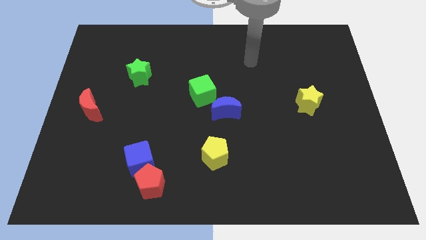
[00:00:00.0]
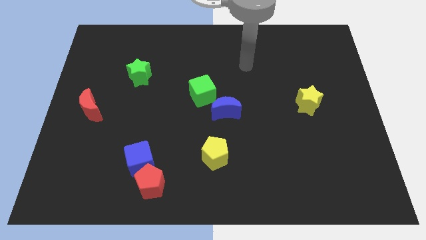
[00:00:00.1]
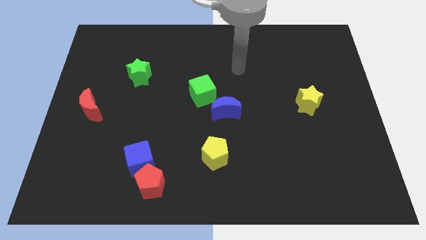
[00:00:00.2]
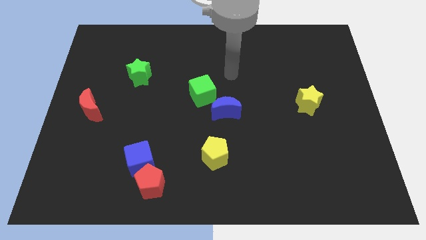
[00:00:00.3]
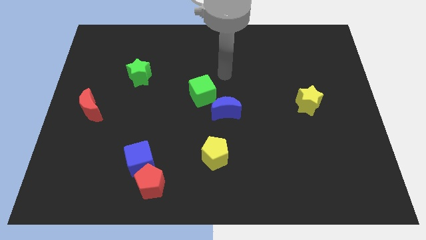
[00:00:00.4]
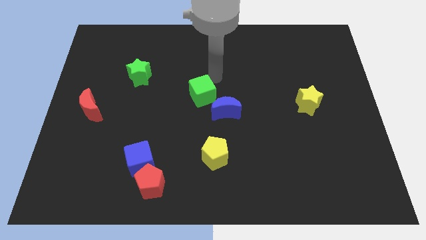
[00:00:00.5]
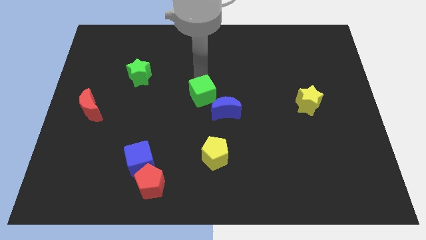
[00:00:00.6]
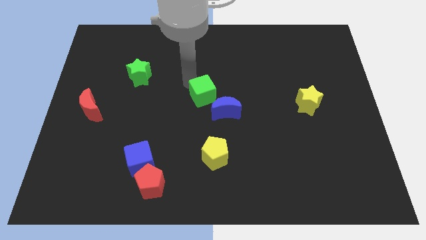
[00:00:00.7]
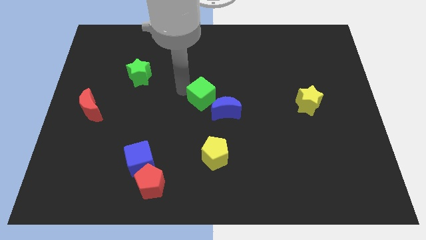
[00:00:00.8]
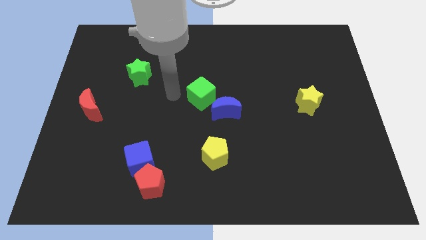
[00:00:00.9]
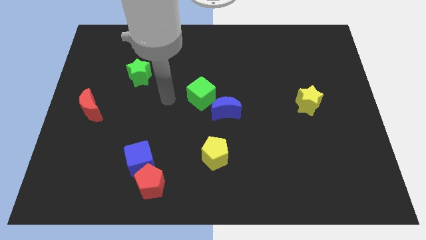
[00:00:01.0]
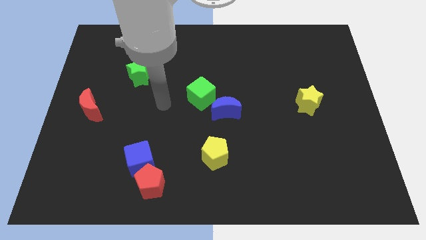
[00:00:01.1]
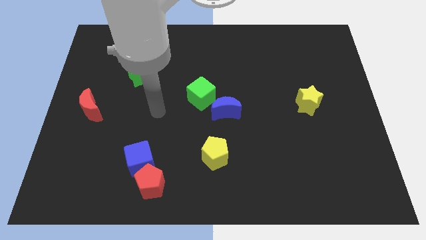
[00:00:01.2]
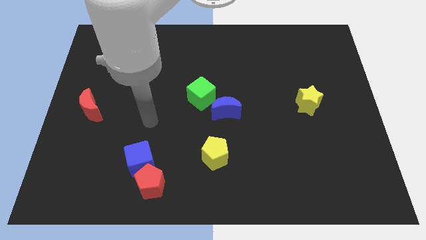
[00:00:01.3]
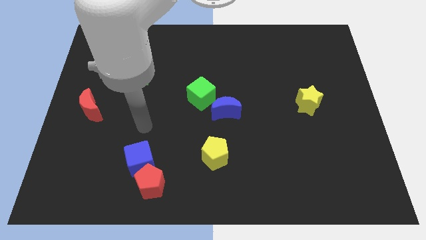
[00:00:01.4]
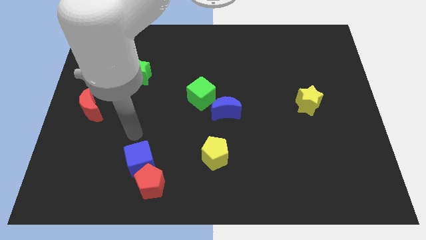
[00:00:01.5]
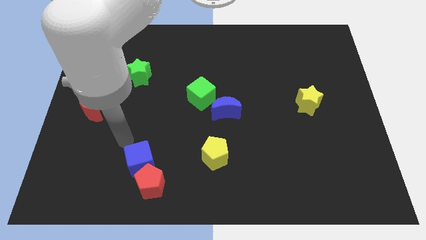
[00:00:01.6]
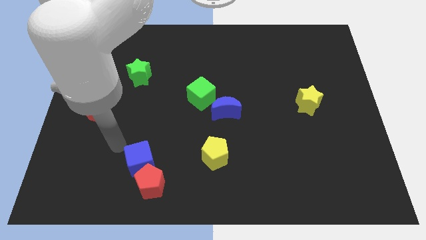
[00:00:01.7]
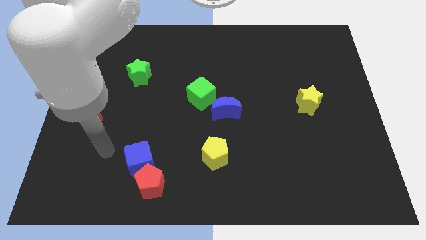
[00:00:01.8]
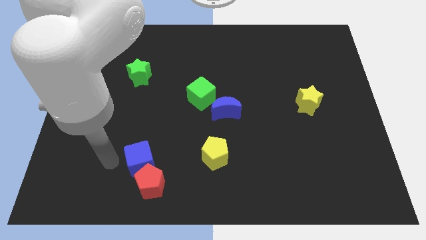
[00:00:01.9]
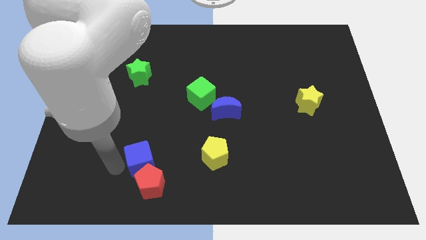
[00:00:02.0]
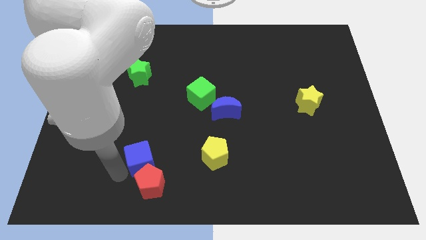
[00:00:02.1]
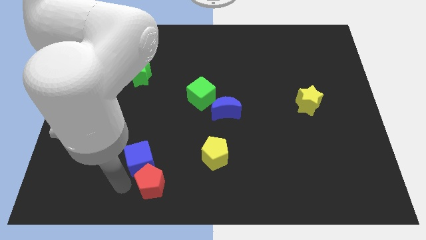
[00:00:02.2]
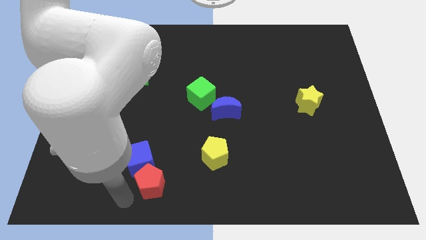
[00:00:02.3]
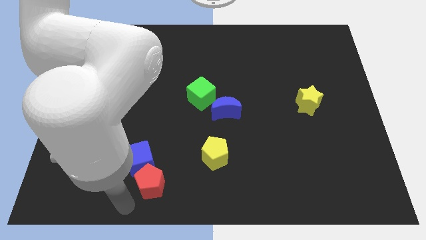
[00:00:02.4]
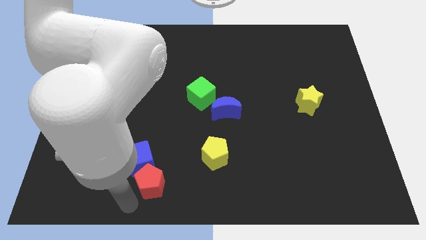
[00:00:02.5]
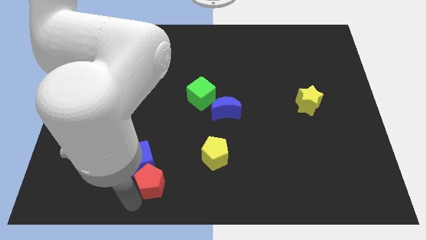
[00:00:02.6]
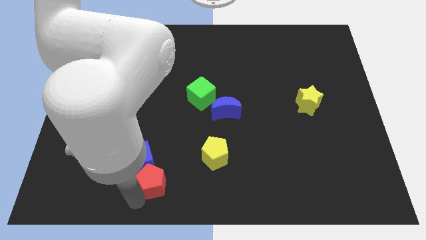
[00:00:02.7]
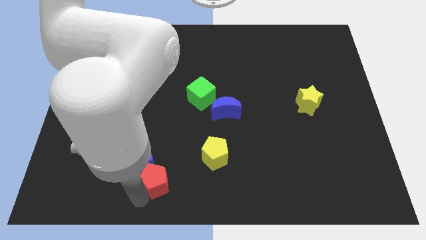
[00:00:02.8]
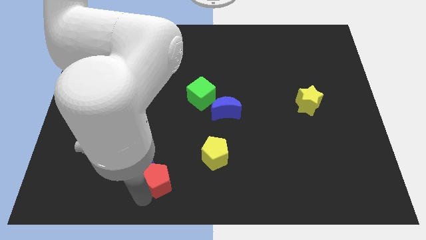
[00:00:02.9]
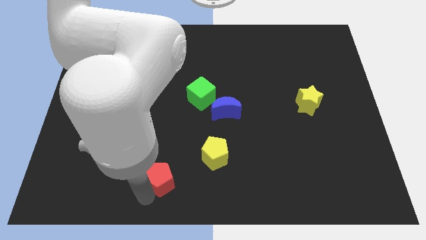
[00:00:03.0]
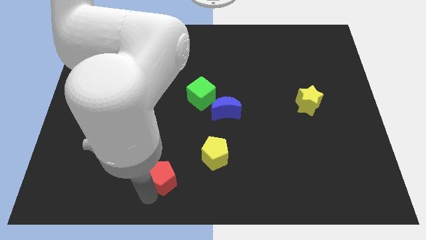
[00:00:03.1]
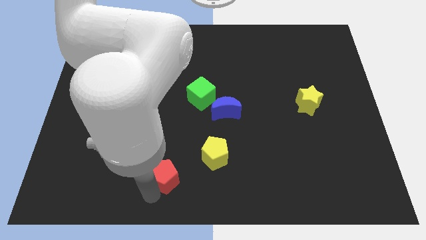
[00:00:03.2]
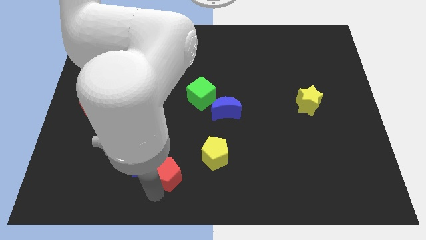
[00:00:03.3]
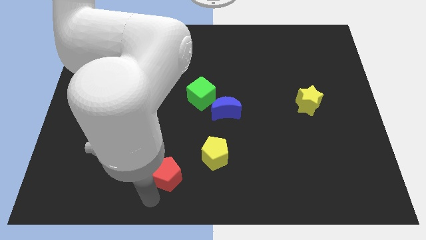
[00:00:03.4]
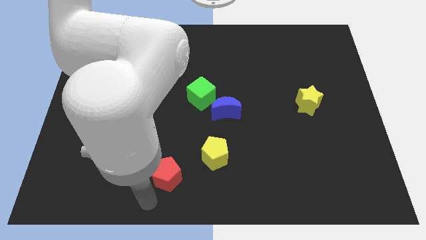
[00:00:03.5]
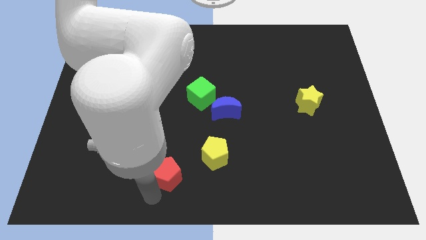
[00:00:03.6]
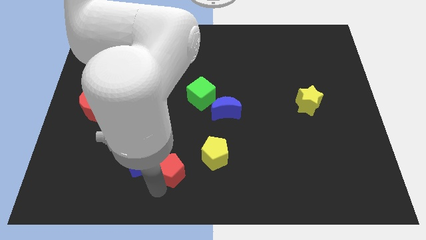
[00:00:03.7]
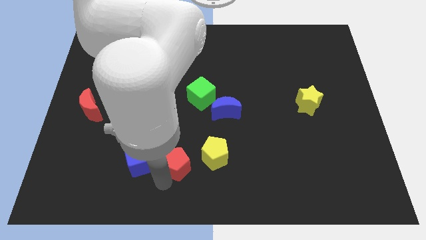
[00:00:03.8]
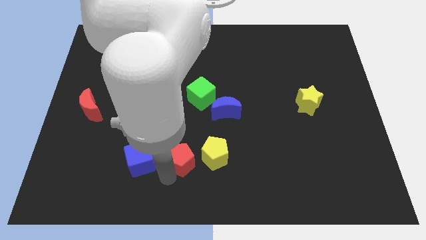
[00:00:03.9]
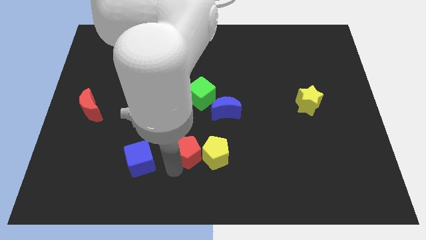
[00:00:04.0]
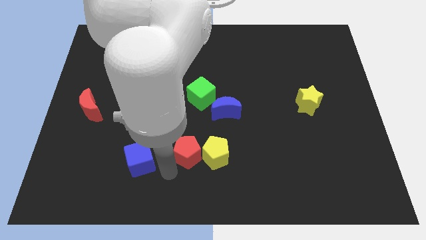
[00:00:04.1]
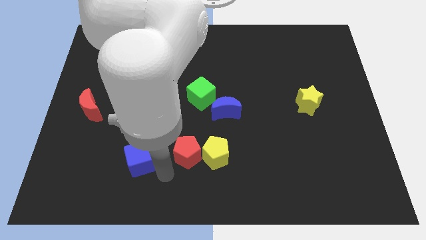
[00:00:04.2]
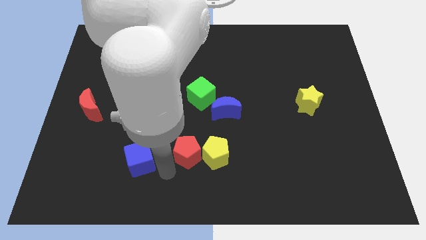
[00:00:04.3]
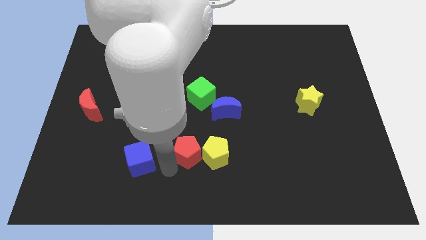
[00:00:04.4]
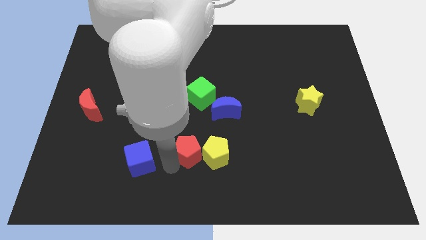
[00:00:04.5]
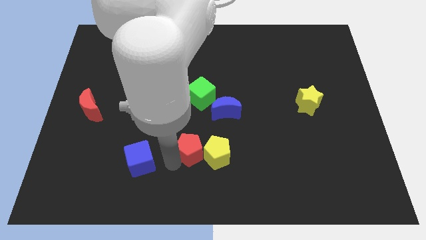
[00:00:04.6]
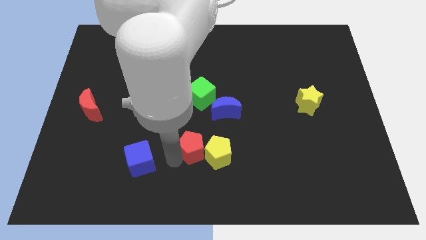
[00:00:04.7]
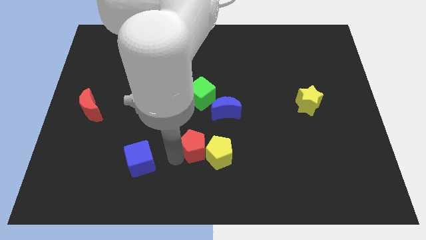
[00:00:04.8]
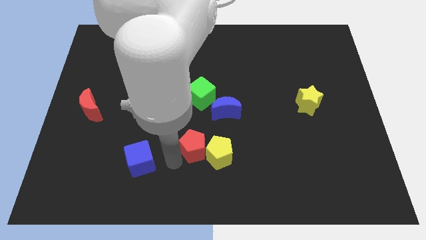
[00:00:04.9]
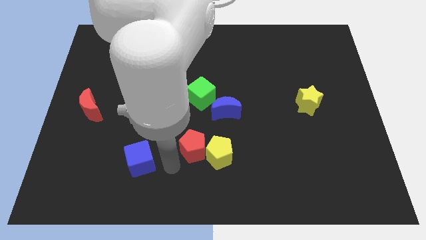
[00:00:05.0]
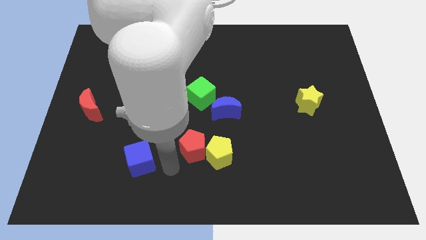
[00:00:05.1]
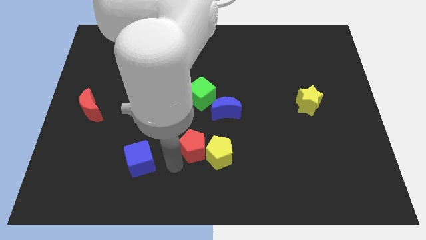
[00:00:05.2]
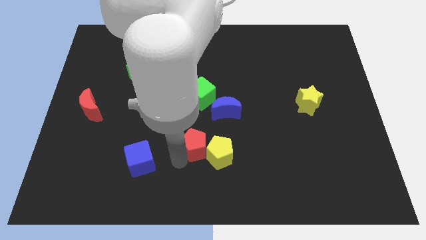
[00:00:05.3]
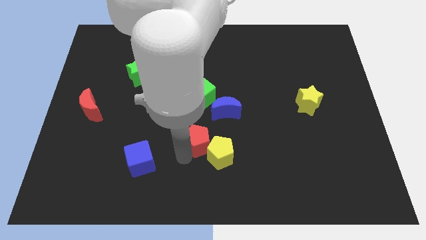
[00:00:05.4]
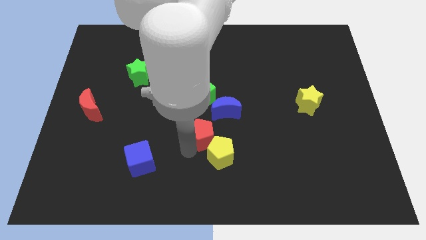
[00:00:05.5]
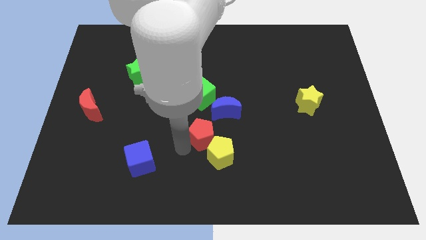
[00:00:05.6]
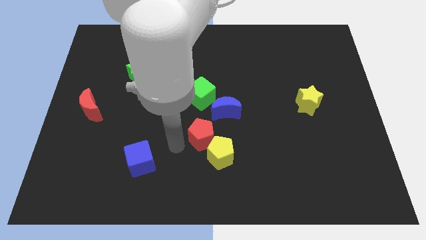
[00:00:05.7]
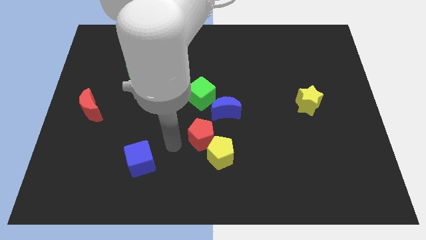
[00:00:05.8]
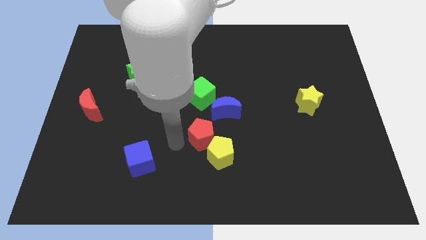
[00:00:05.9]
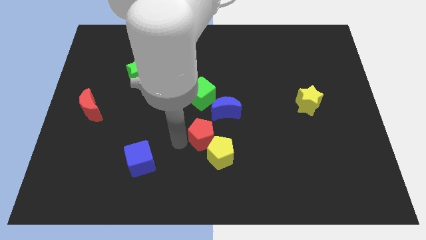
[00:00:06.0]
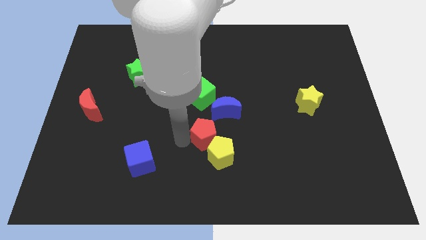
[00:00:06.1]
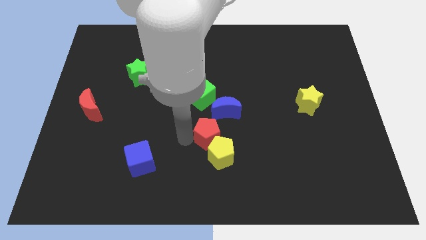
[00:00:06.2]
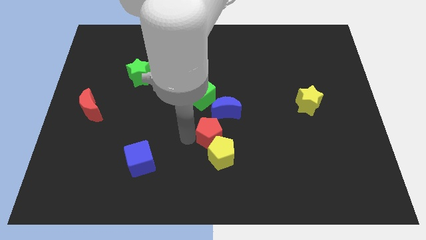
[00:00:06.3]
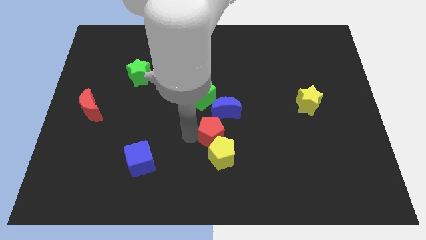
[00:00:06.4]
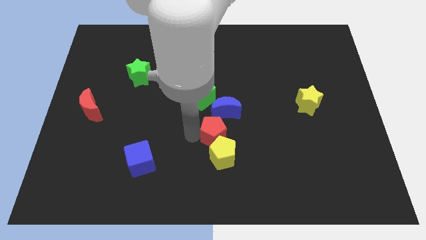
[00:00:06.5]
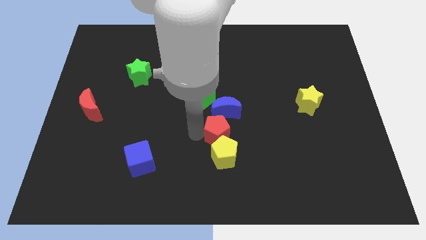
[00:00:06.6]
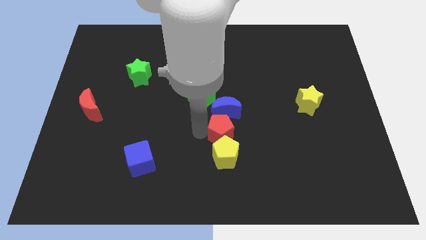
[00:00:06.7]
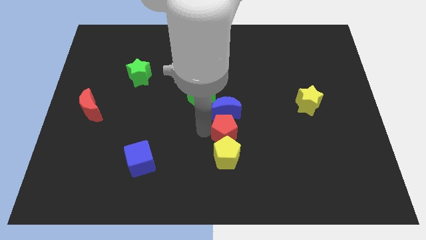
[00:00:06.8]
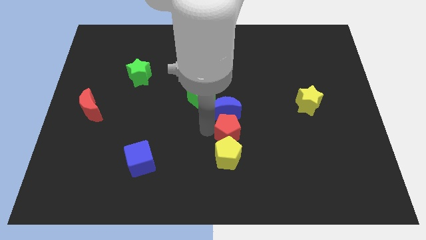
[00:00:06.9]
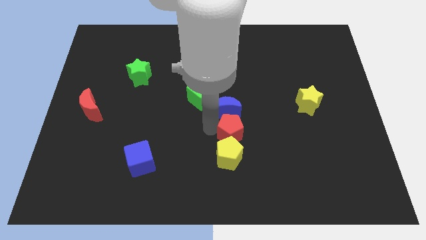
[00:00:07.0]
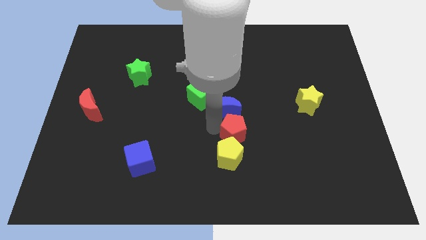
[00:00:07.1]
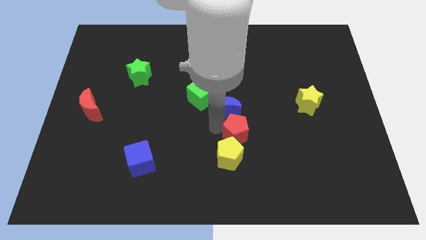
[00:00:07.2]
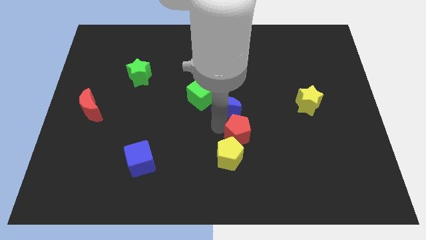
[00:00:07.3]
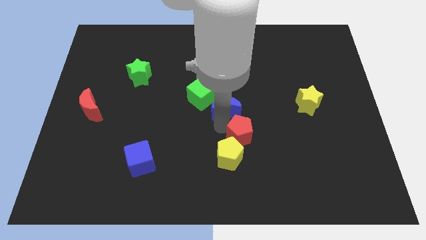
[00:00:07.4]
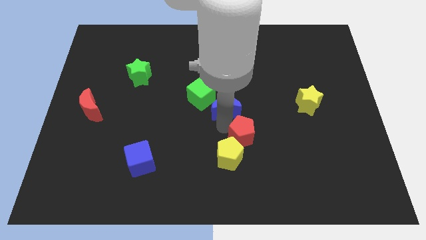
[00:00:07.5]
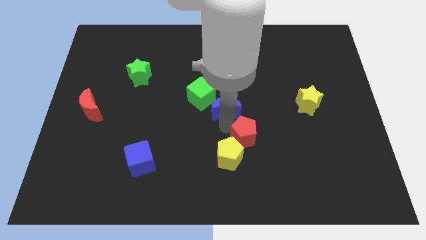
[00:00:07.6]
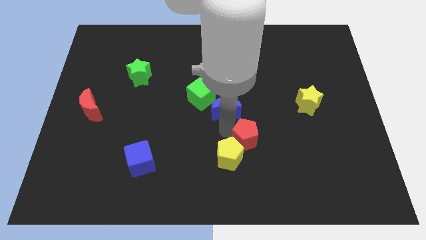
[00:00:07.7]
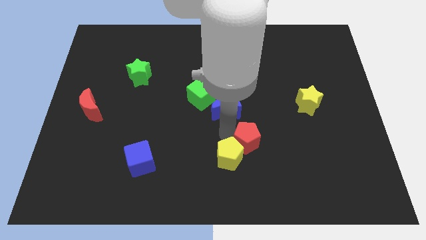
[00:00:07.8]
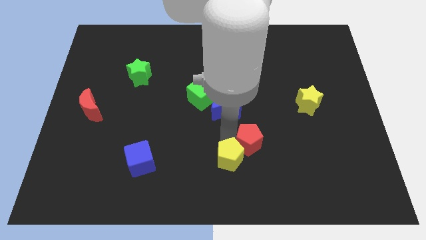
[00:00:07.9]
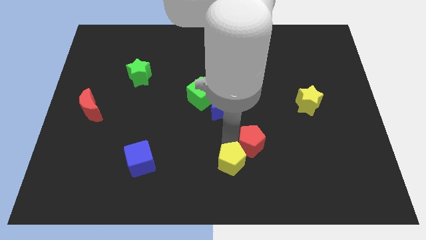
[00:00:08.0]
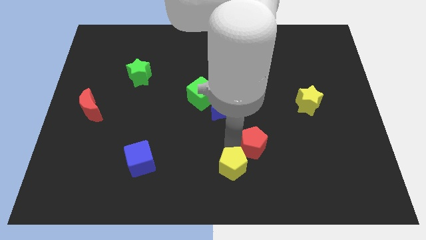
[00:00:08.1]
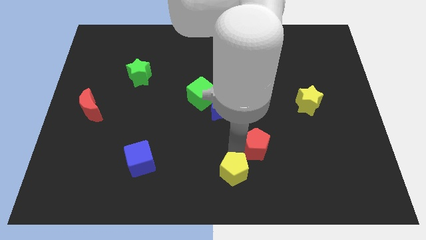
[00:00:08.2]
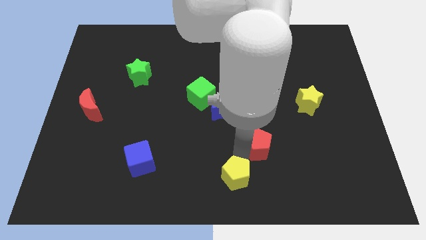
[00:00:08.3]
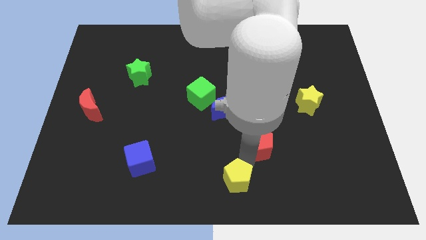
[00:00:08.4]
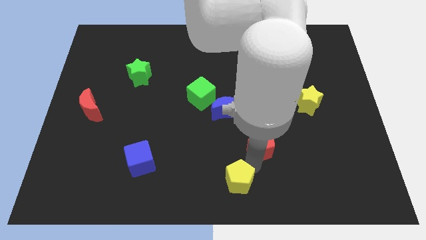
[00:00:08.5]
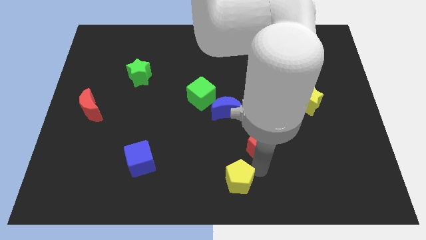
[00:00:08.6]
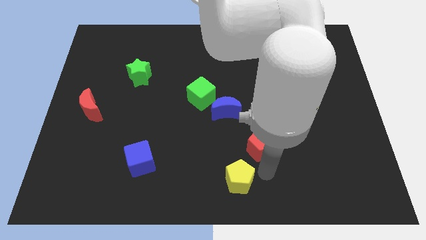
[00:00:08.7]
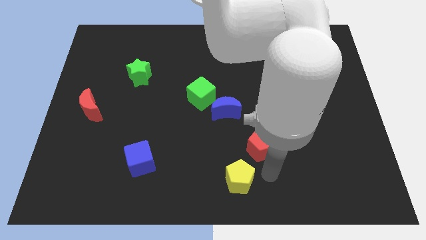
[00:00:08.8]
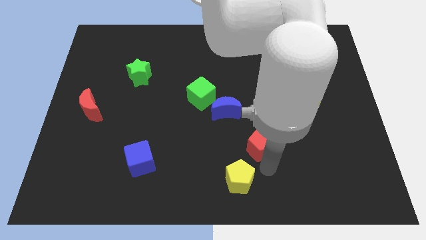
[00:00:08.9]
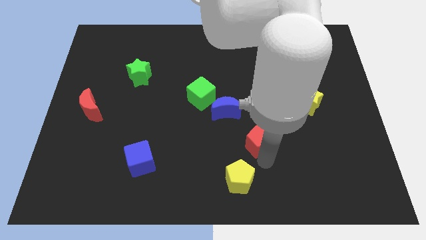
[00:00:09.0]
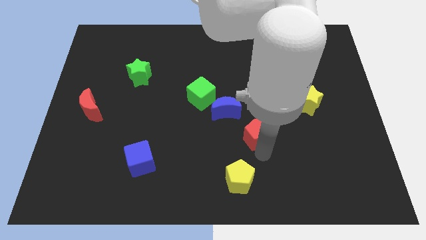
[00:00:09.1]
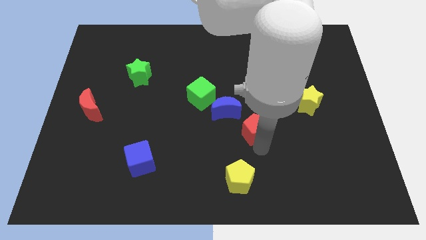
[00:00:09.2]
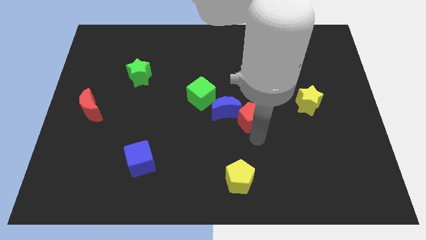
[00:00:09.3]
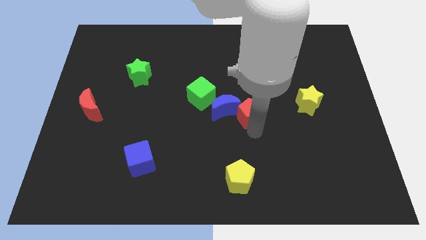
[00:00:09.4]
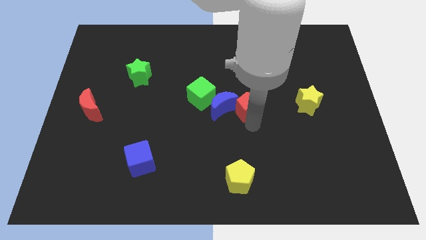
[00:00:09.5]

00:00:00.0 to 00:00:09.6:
put the red pentagon to the right side of the green cube
